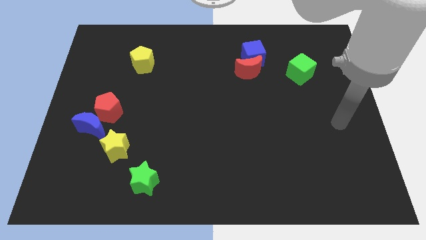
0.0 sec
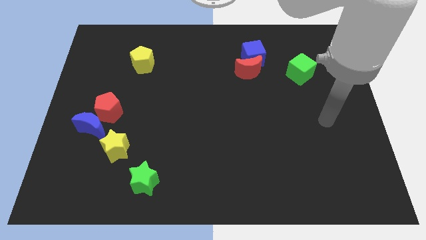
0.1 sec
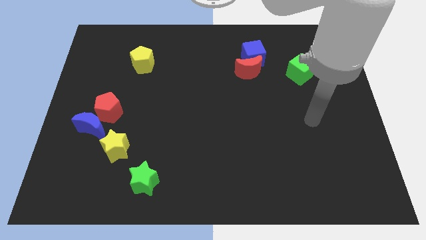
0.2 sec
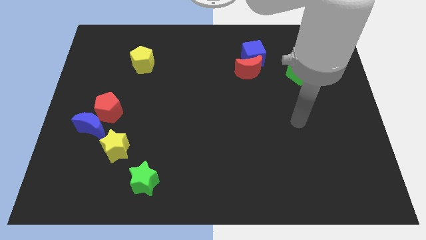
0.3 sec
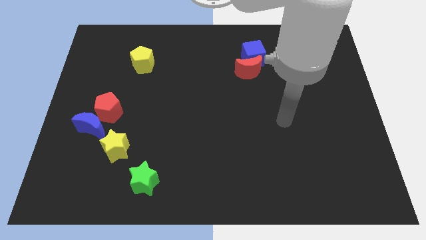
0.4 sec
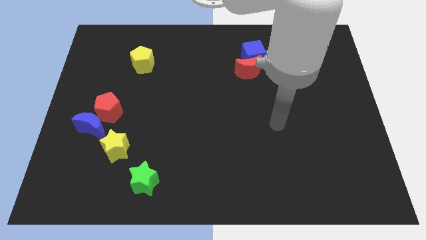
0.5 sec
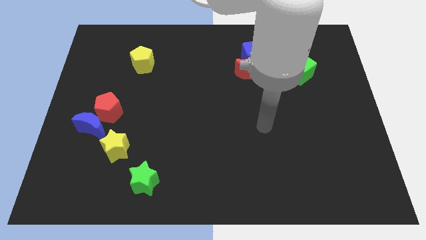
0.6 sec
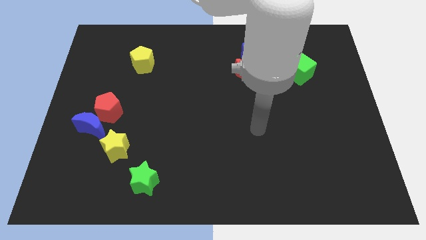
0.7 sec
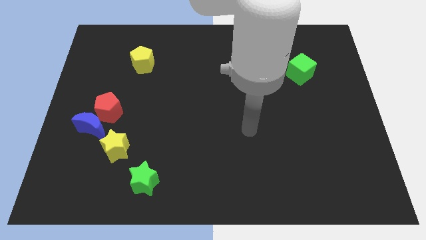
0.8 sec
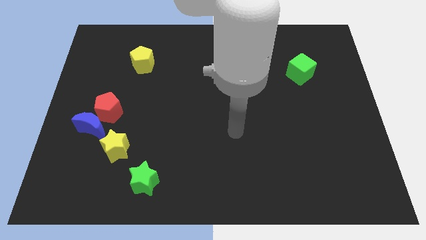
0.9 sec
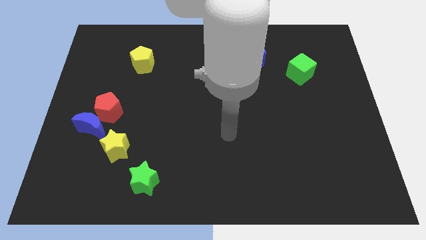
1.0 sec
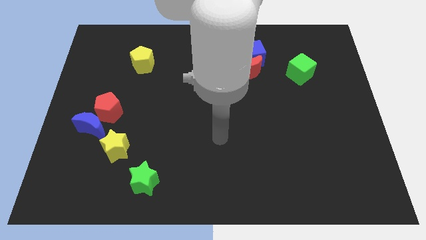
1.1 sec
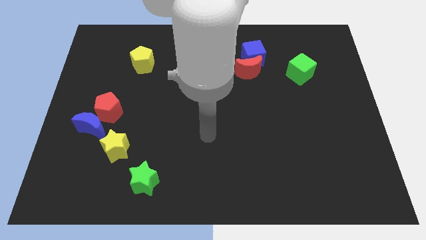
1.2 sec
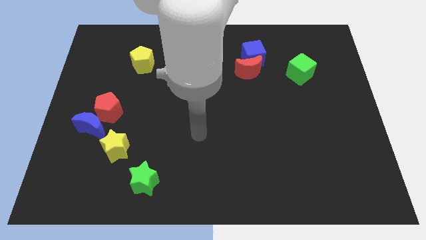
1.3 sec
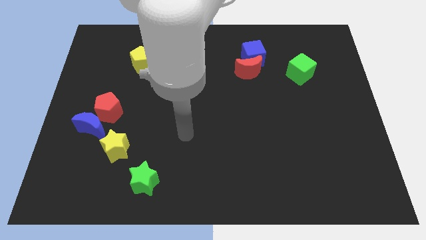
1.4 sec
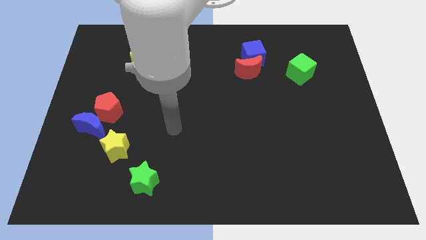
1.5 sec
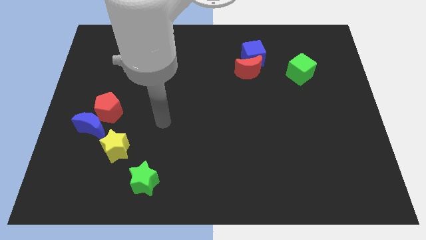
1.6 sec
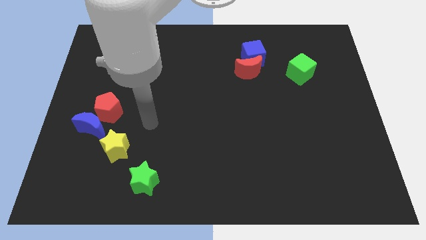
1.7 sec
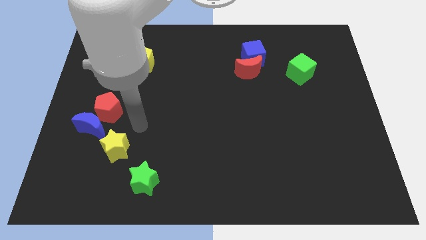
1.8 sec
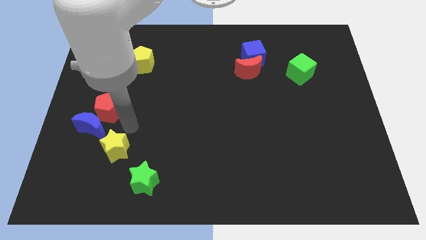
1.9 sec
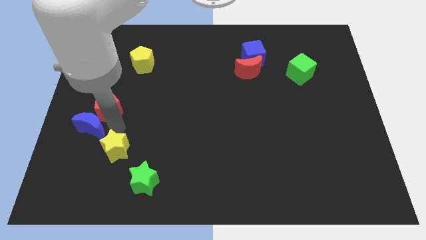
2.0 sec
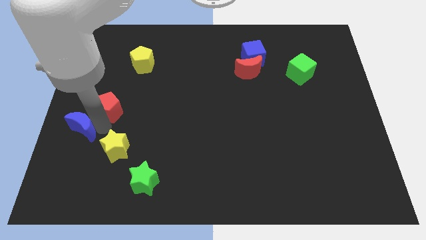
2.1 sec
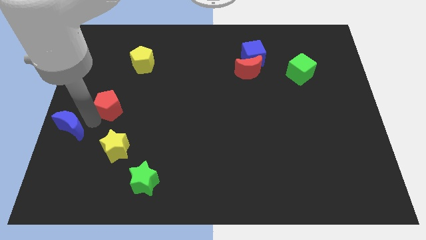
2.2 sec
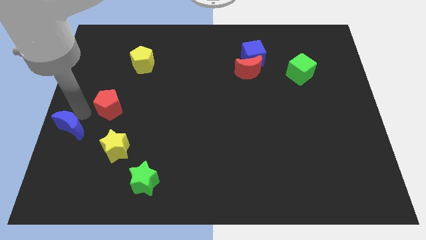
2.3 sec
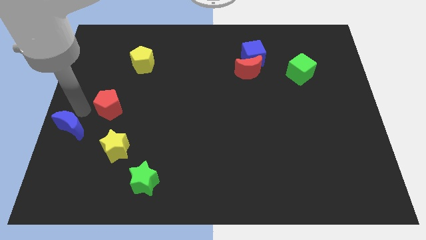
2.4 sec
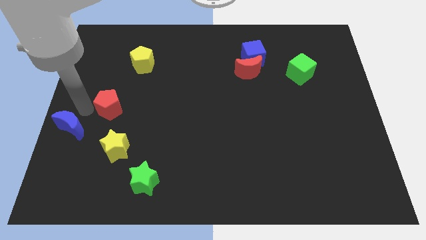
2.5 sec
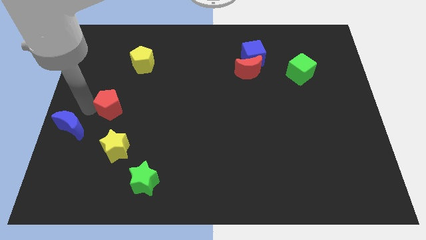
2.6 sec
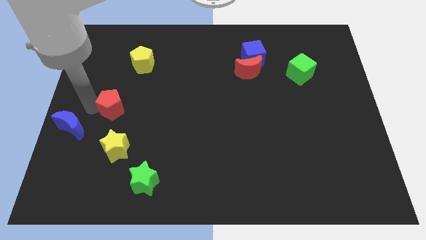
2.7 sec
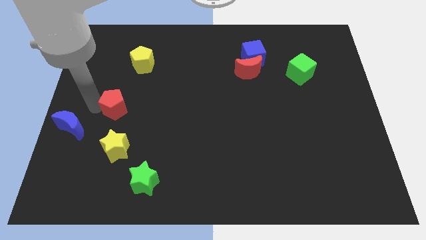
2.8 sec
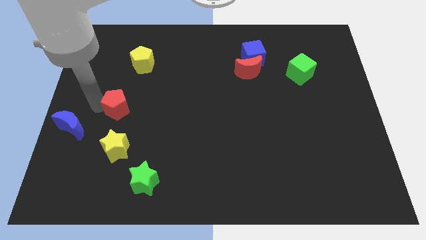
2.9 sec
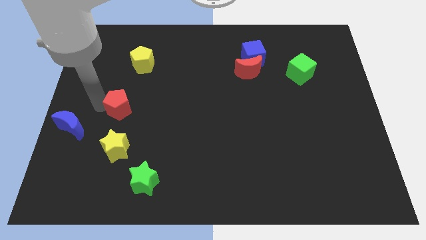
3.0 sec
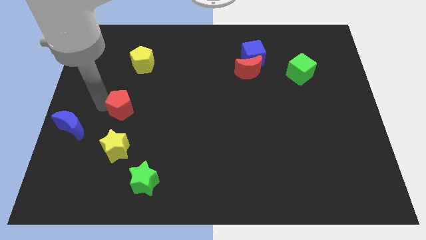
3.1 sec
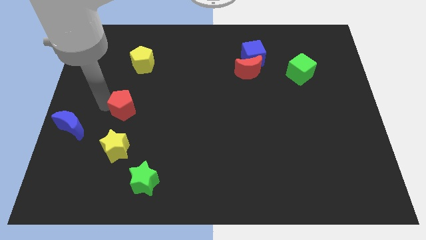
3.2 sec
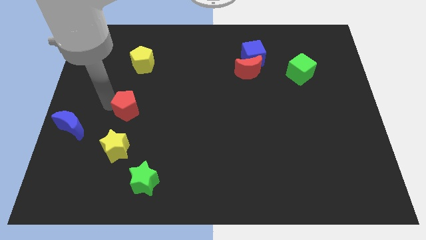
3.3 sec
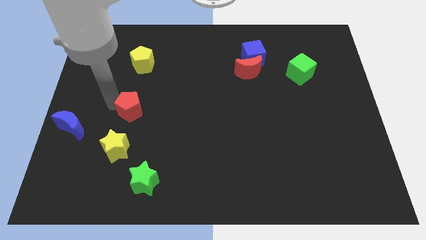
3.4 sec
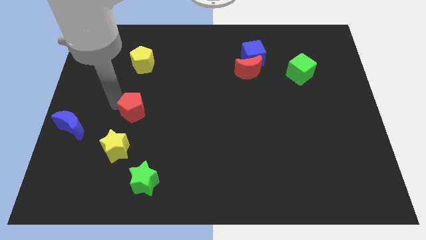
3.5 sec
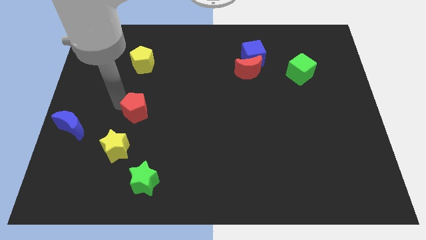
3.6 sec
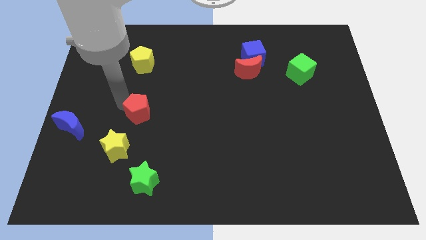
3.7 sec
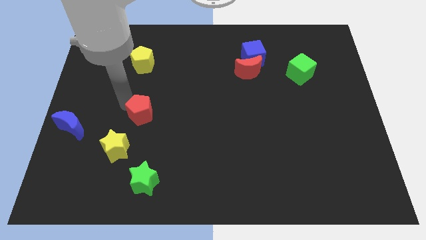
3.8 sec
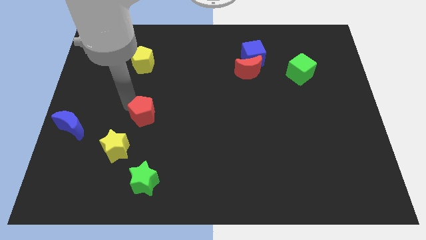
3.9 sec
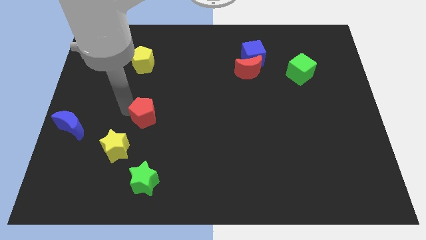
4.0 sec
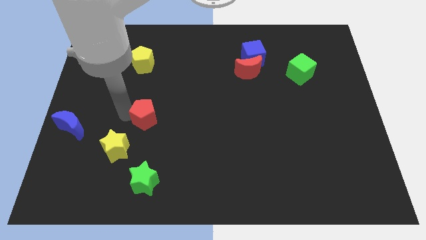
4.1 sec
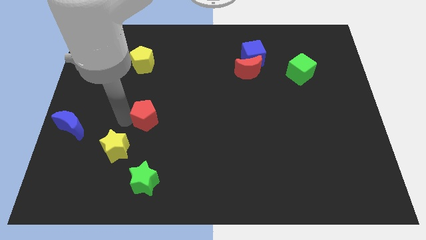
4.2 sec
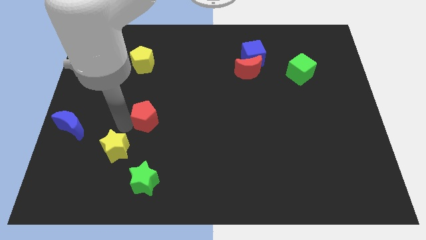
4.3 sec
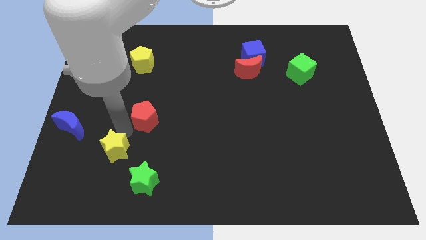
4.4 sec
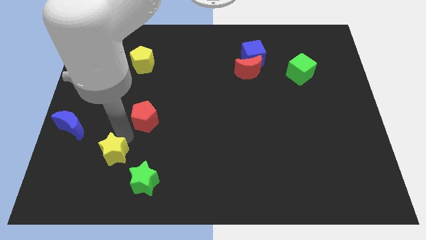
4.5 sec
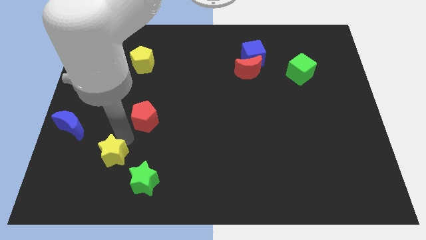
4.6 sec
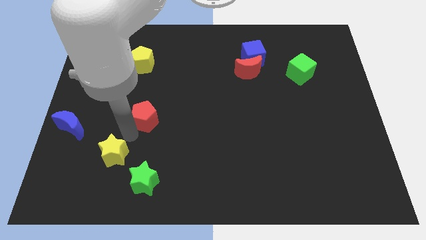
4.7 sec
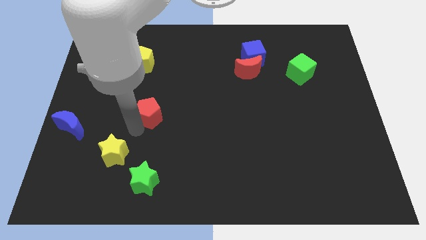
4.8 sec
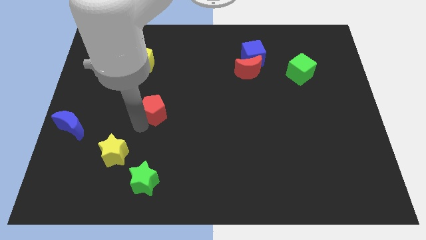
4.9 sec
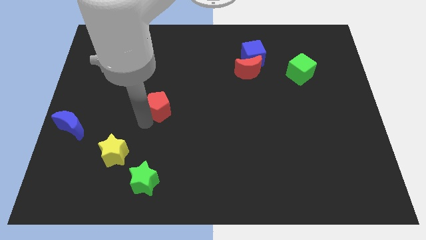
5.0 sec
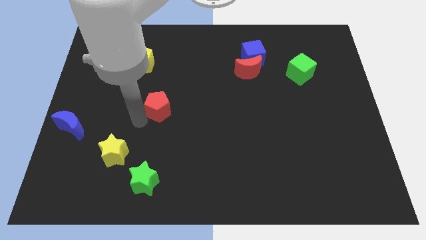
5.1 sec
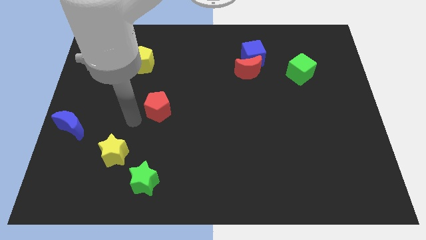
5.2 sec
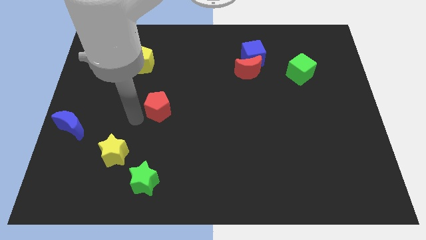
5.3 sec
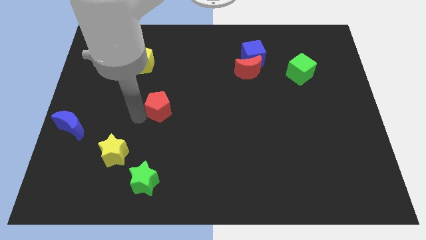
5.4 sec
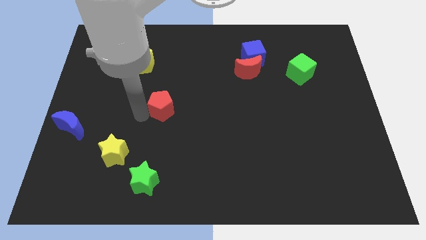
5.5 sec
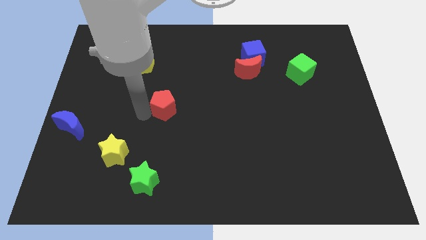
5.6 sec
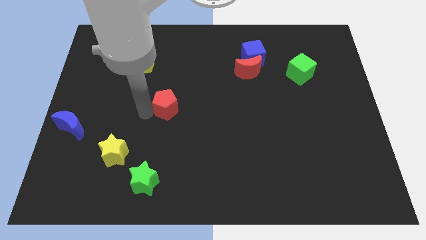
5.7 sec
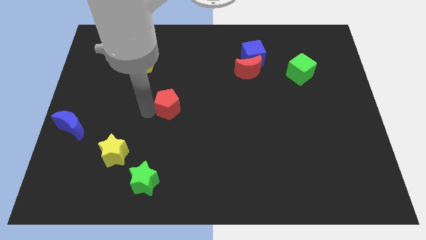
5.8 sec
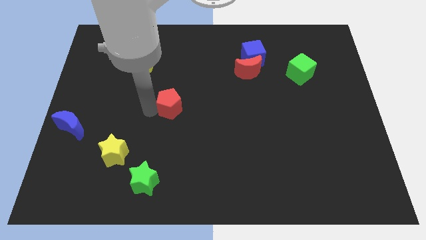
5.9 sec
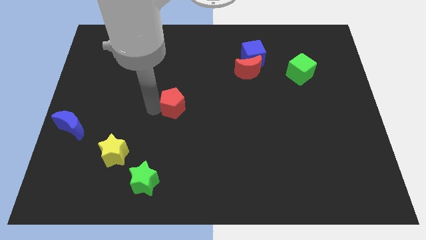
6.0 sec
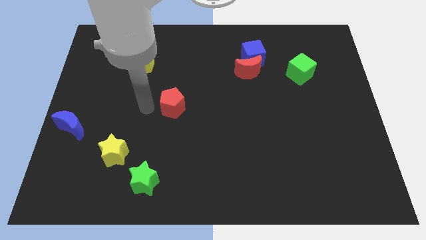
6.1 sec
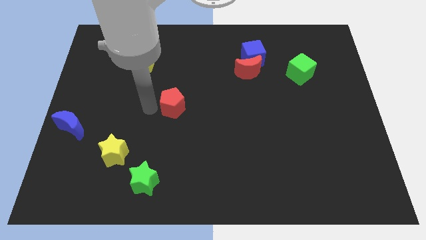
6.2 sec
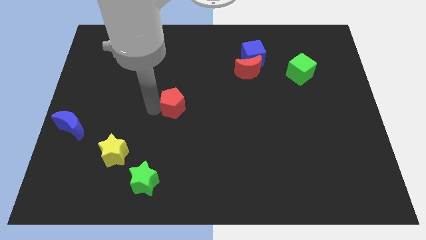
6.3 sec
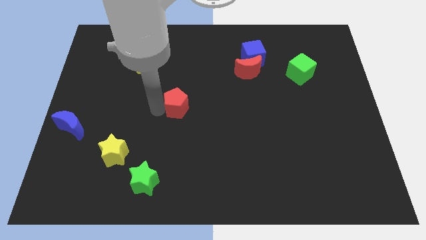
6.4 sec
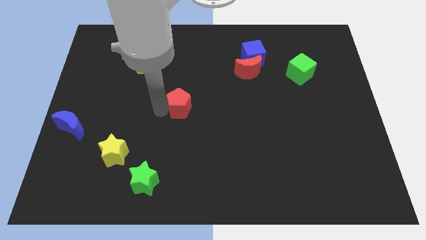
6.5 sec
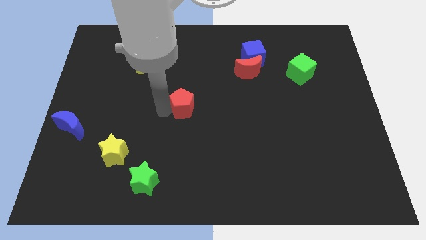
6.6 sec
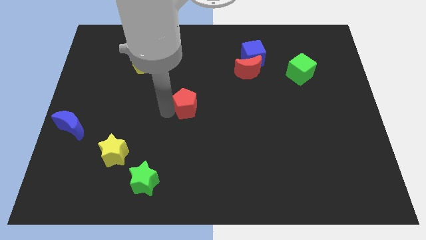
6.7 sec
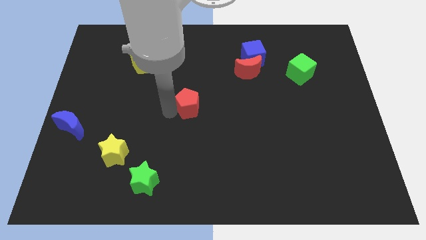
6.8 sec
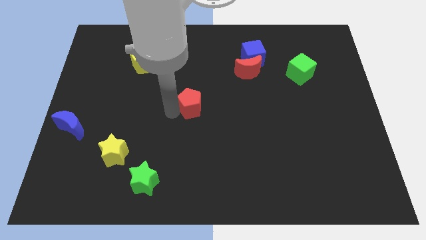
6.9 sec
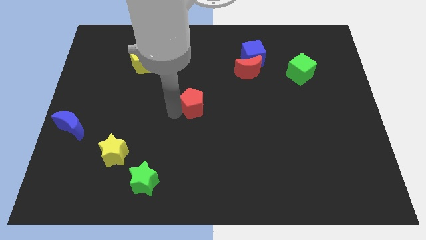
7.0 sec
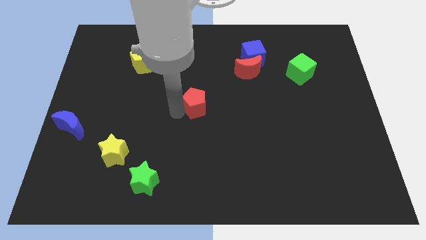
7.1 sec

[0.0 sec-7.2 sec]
move the red pentagon to the right

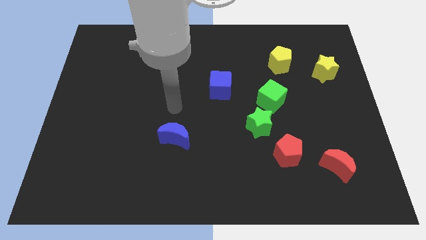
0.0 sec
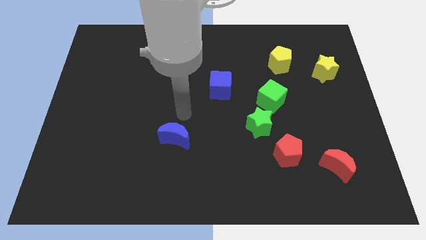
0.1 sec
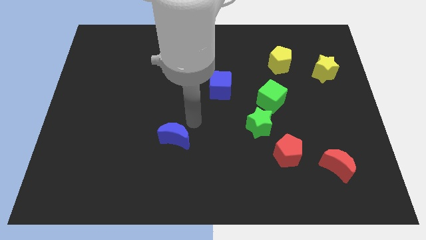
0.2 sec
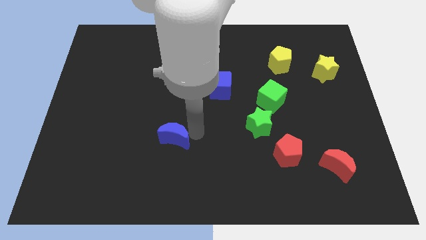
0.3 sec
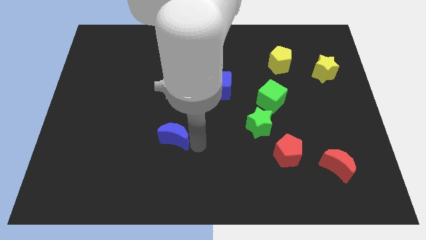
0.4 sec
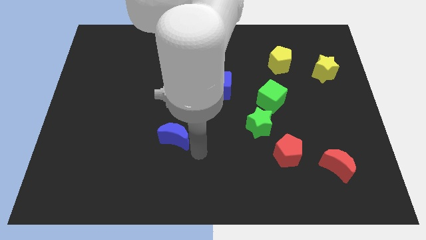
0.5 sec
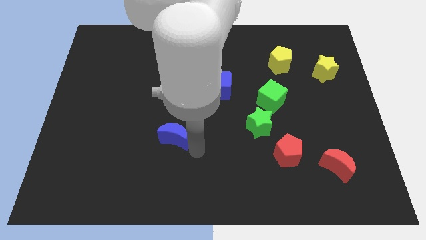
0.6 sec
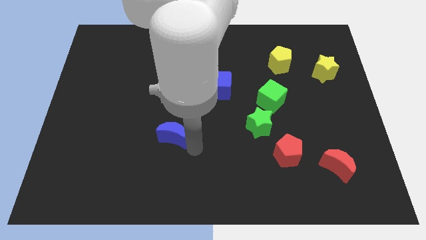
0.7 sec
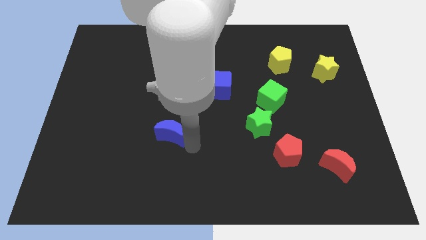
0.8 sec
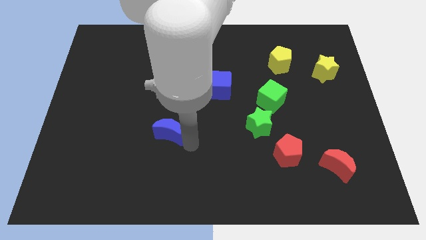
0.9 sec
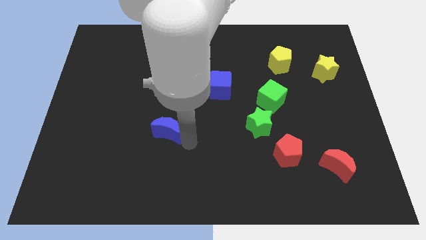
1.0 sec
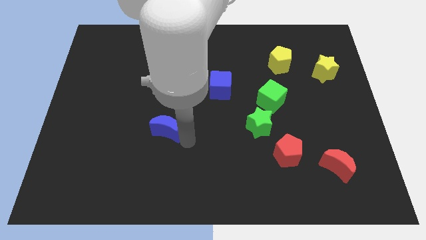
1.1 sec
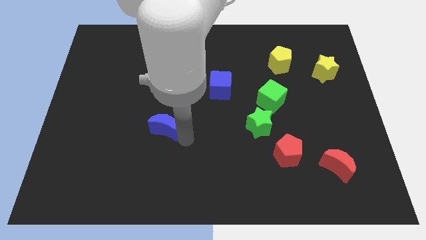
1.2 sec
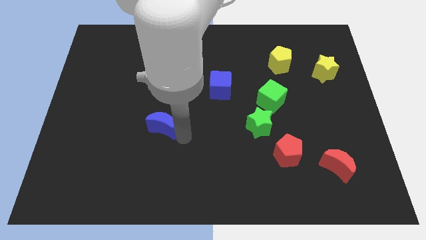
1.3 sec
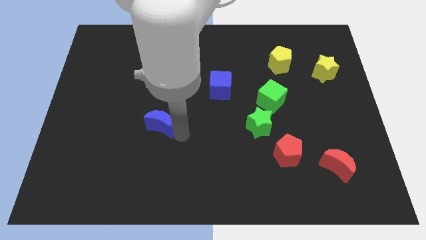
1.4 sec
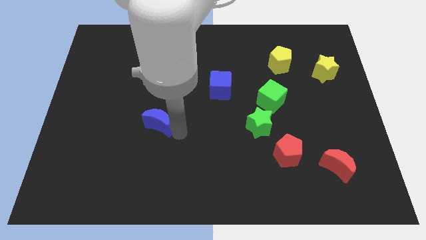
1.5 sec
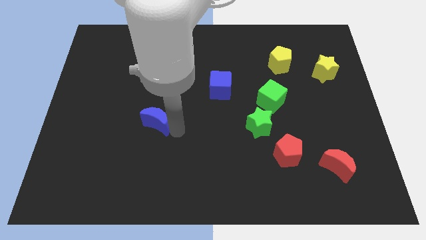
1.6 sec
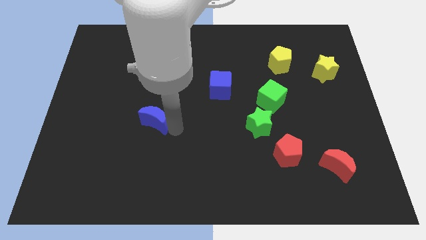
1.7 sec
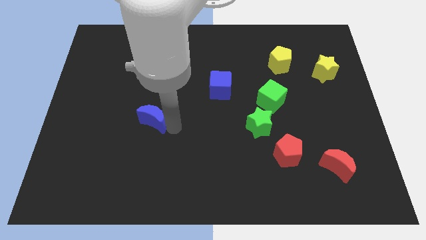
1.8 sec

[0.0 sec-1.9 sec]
move the blue moon somewhat up and left
